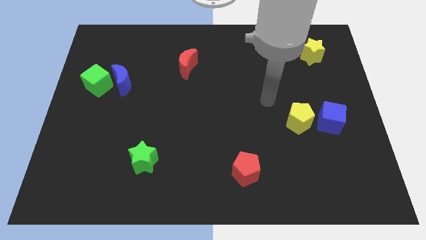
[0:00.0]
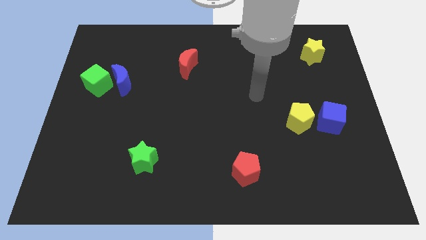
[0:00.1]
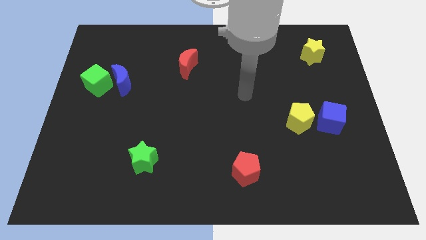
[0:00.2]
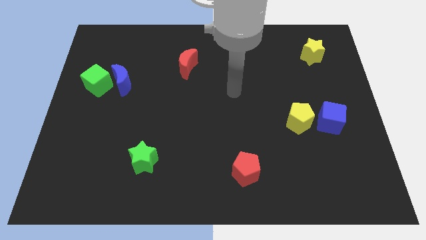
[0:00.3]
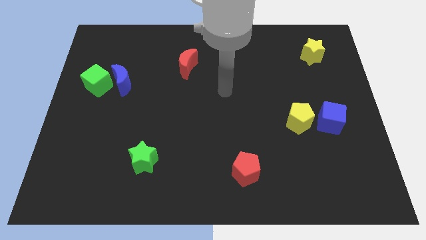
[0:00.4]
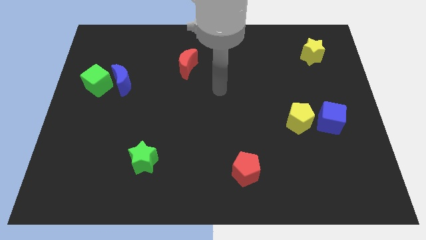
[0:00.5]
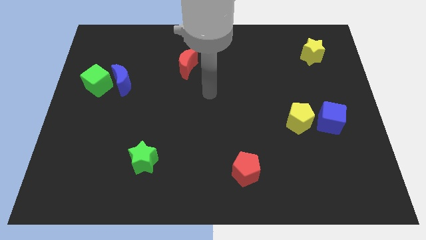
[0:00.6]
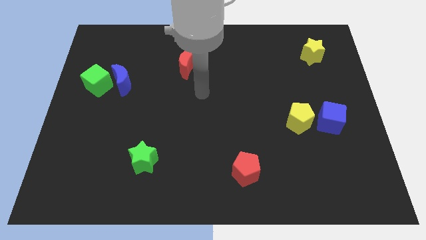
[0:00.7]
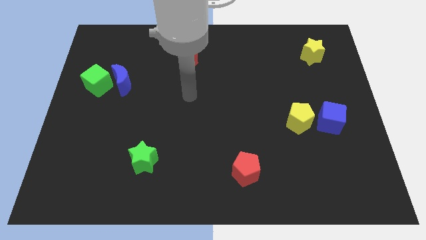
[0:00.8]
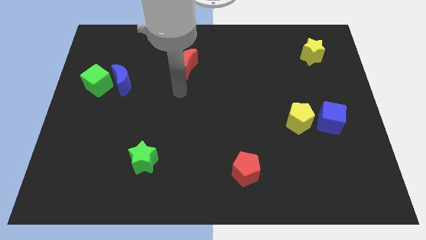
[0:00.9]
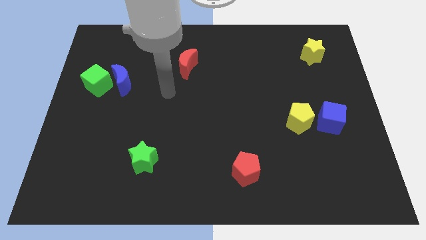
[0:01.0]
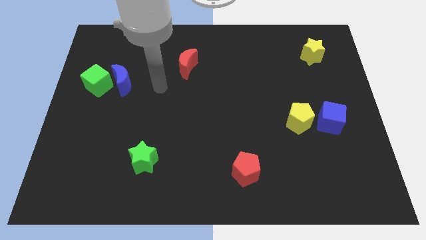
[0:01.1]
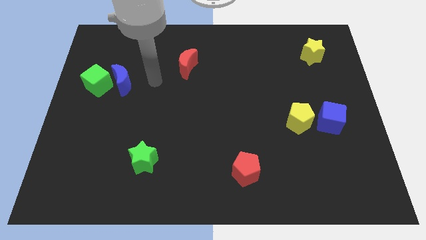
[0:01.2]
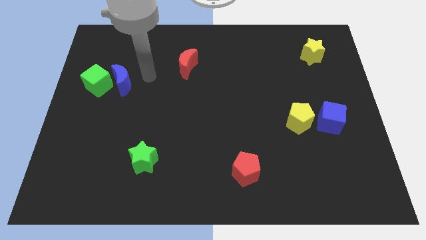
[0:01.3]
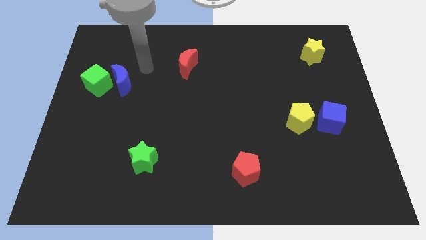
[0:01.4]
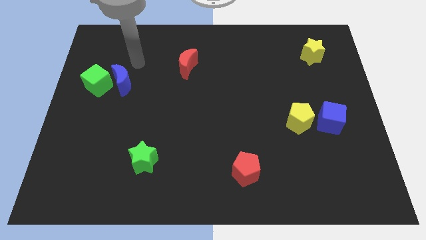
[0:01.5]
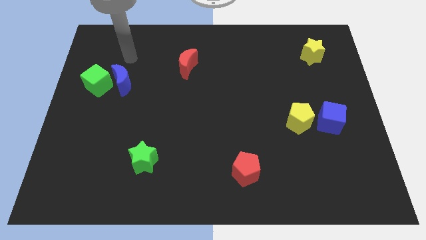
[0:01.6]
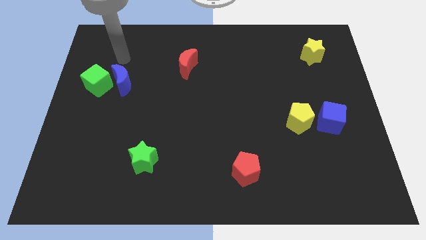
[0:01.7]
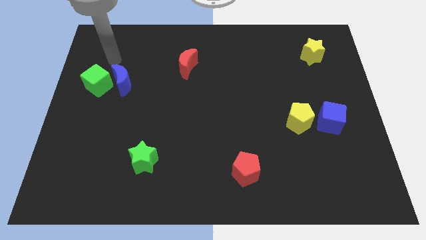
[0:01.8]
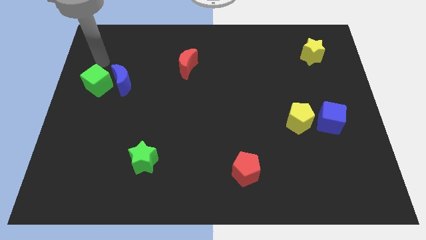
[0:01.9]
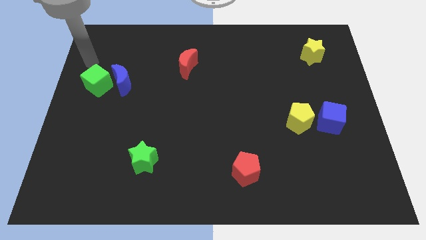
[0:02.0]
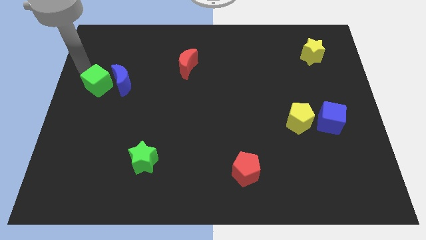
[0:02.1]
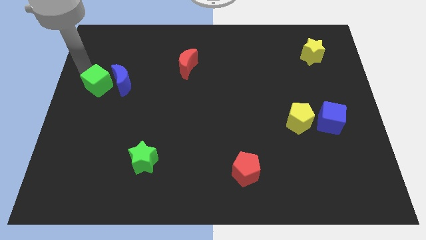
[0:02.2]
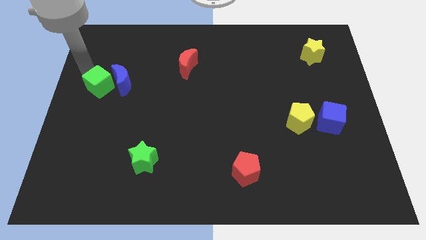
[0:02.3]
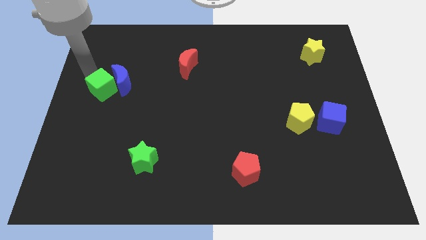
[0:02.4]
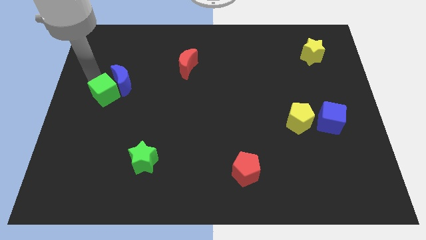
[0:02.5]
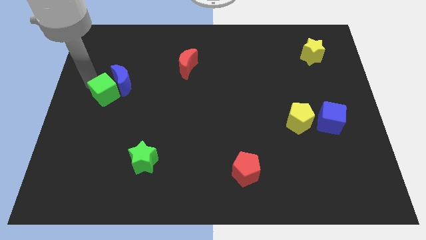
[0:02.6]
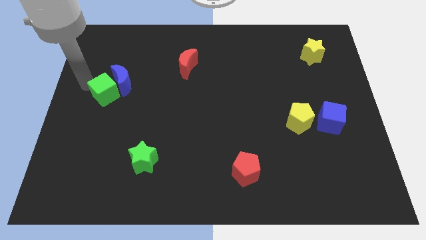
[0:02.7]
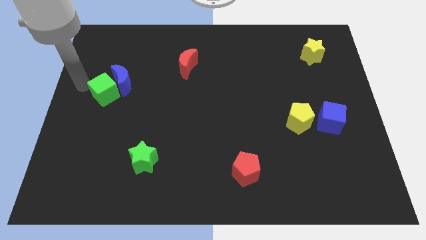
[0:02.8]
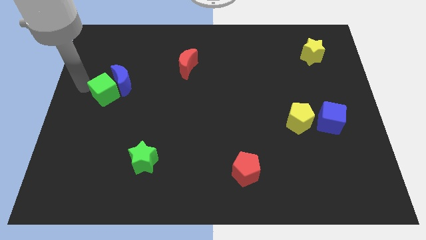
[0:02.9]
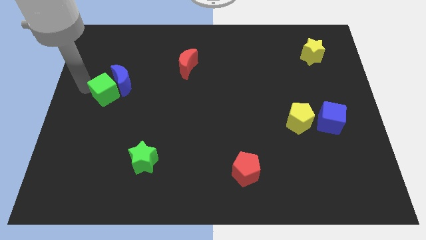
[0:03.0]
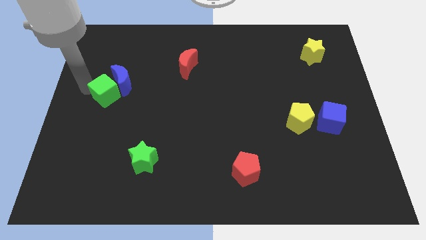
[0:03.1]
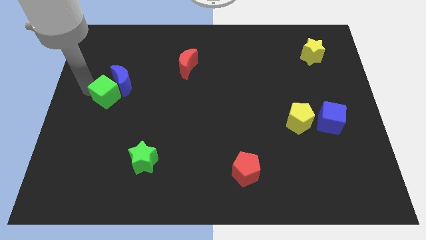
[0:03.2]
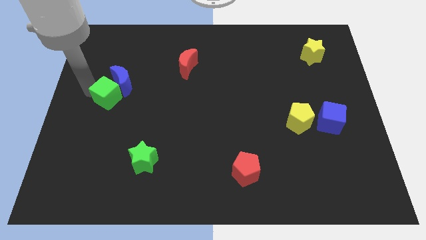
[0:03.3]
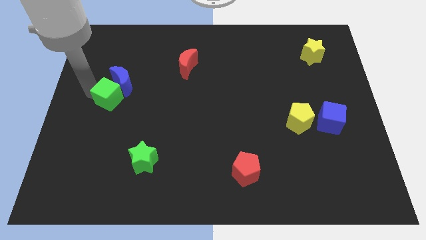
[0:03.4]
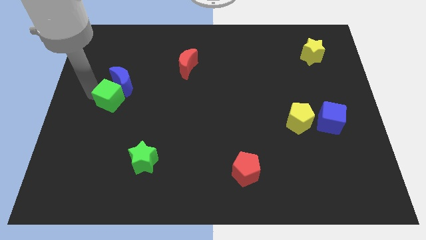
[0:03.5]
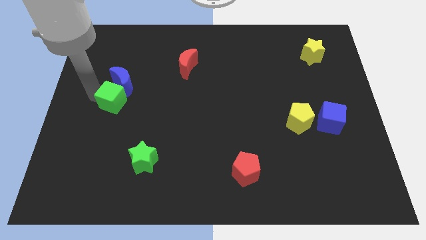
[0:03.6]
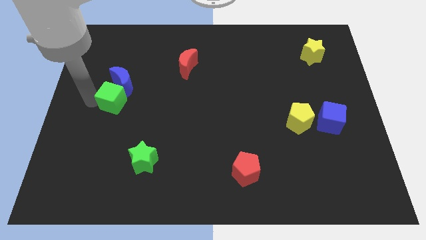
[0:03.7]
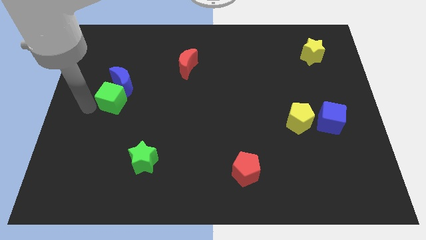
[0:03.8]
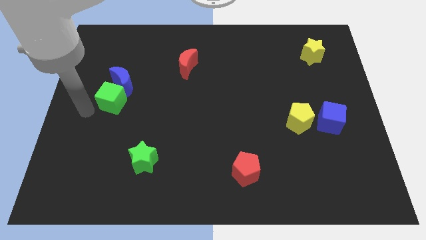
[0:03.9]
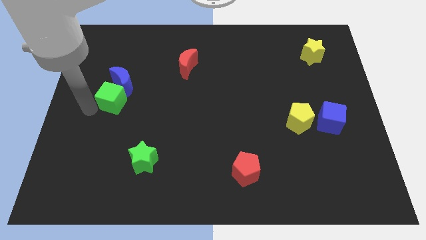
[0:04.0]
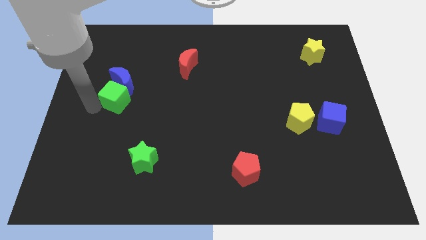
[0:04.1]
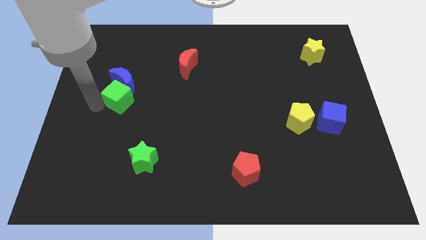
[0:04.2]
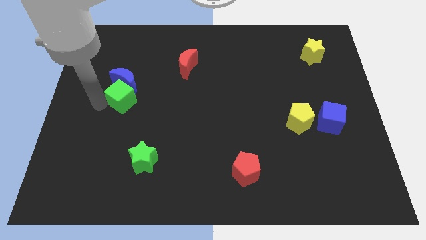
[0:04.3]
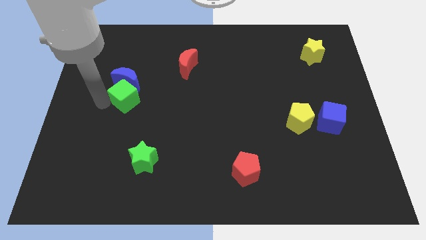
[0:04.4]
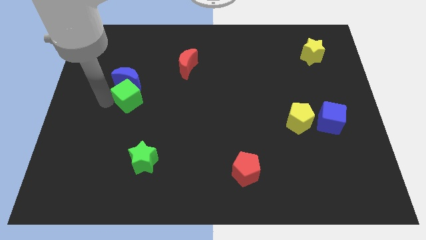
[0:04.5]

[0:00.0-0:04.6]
slide the green cube to the right somewhat

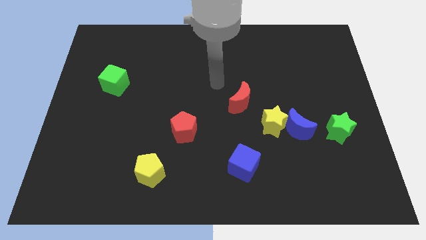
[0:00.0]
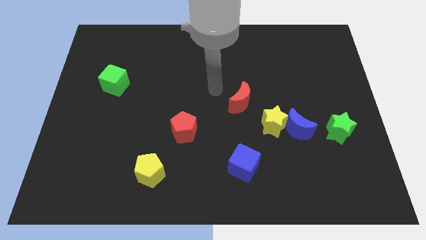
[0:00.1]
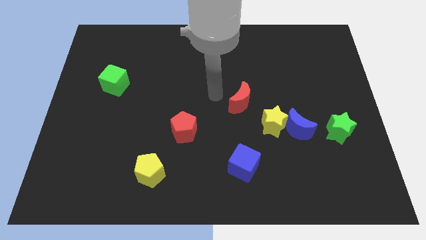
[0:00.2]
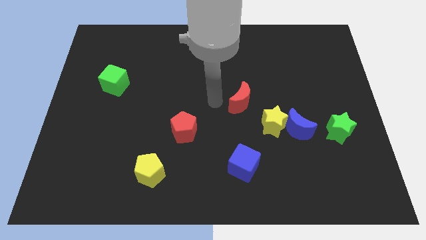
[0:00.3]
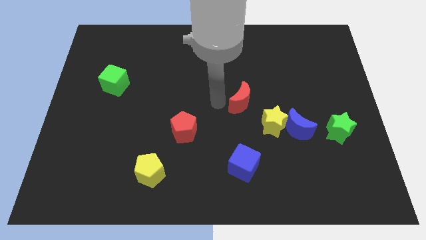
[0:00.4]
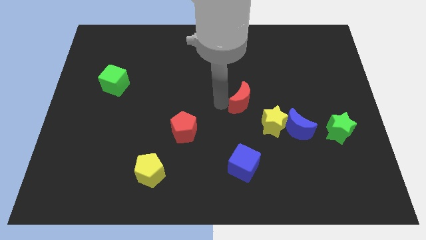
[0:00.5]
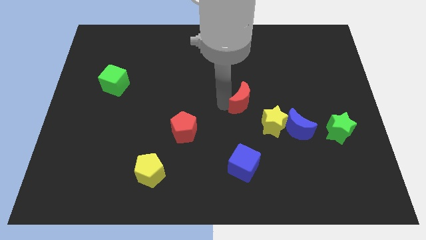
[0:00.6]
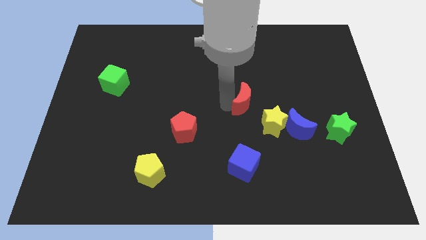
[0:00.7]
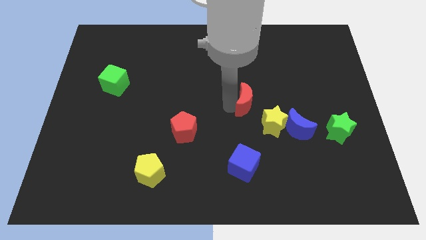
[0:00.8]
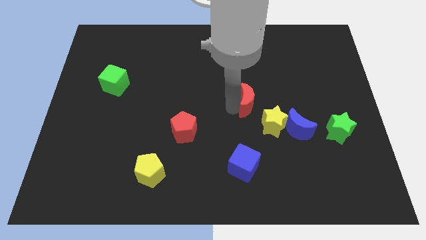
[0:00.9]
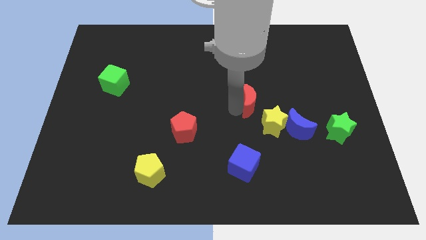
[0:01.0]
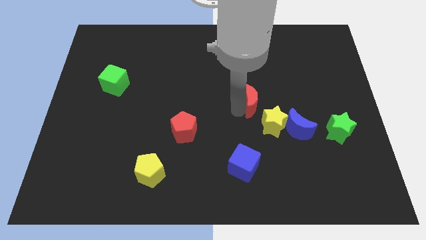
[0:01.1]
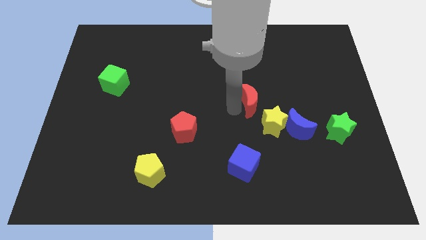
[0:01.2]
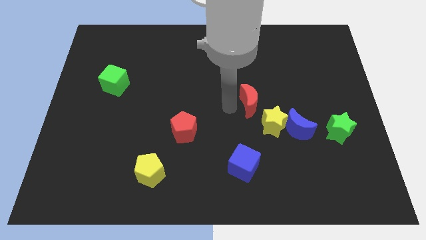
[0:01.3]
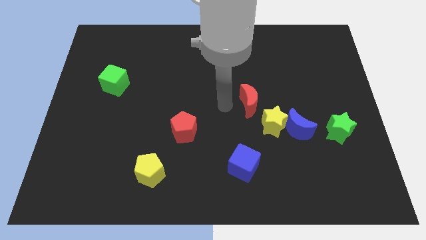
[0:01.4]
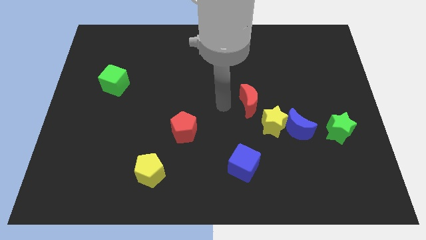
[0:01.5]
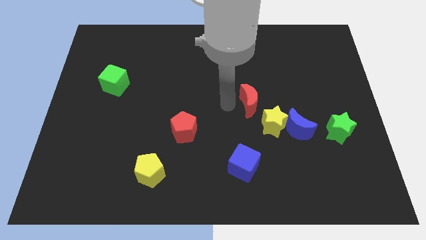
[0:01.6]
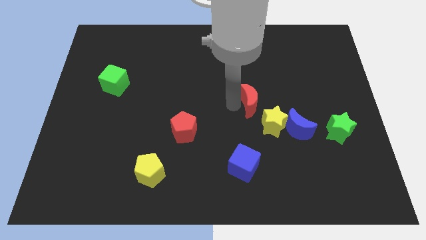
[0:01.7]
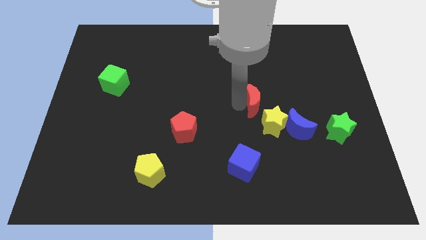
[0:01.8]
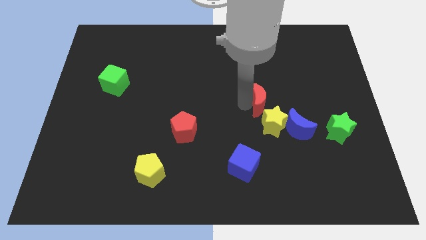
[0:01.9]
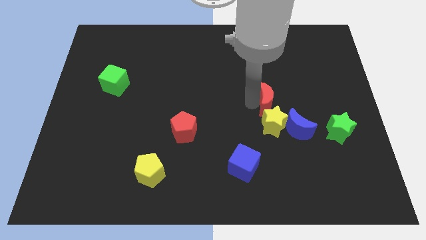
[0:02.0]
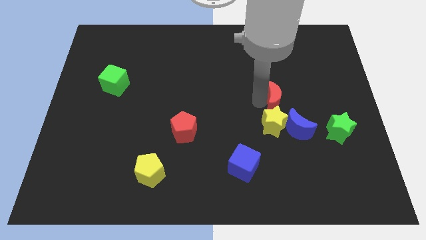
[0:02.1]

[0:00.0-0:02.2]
push the red moon a little bit to the right

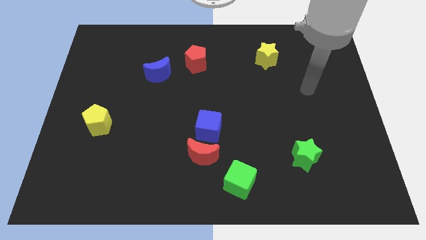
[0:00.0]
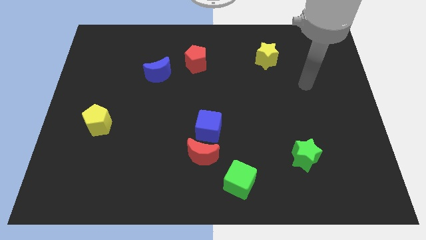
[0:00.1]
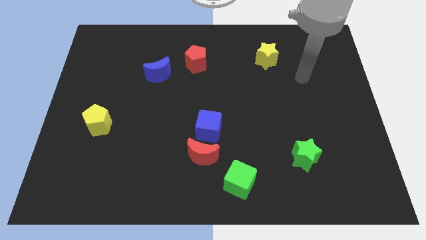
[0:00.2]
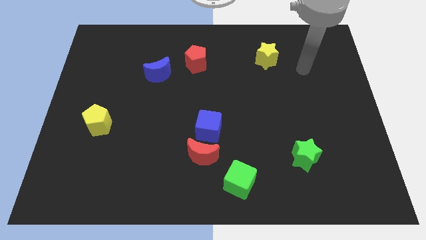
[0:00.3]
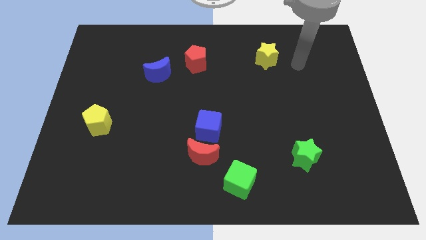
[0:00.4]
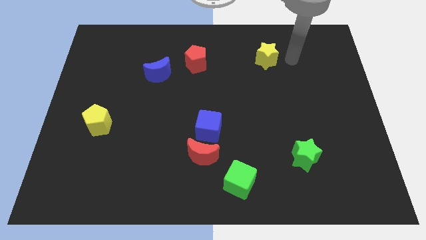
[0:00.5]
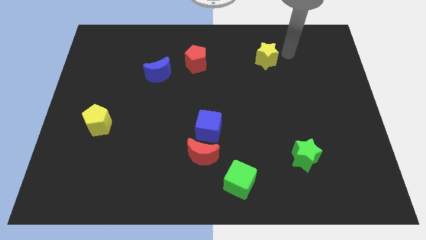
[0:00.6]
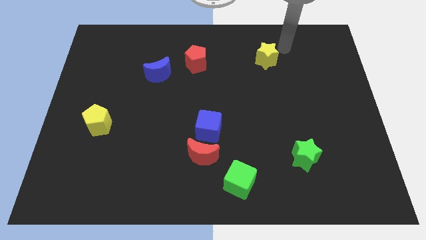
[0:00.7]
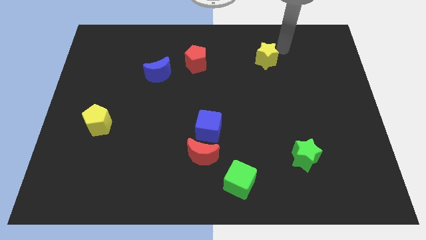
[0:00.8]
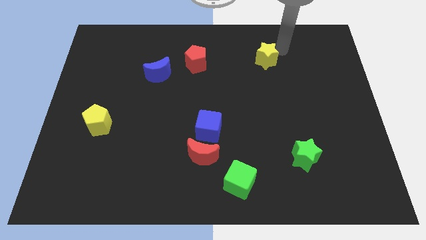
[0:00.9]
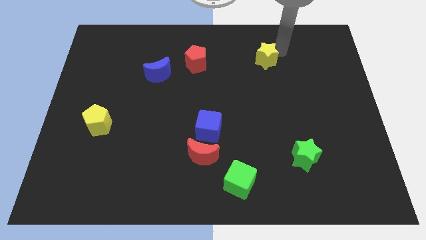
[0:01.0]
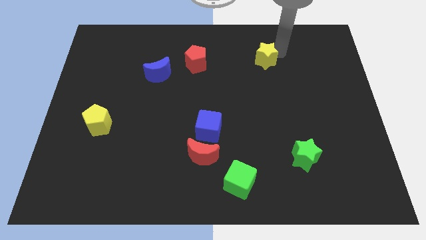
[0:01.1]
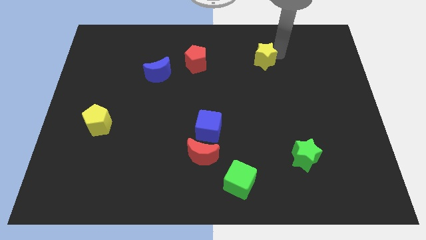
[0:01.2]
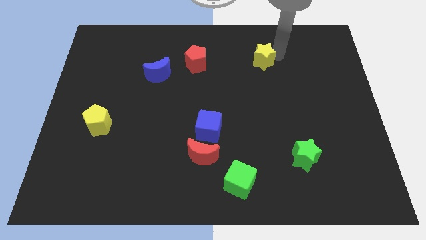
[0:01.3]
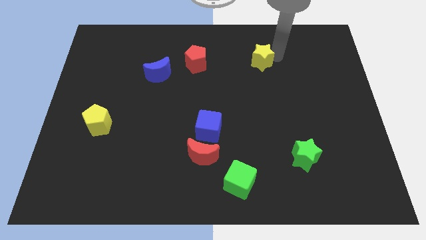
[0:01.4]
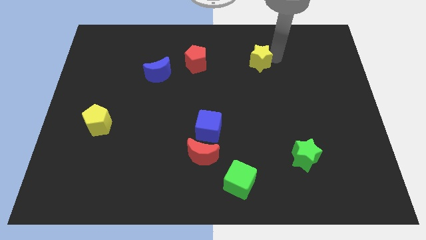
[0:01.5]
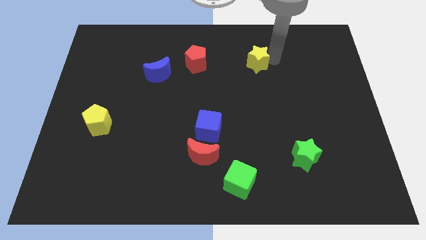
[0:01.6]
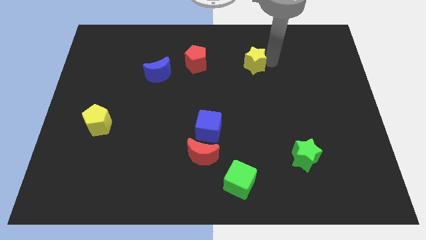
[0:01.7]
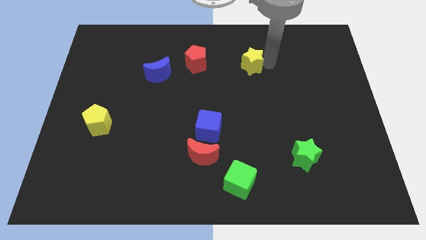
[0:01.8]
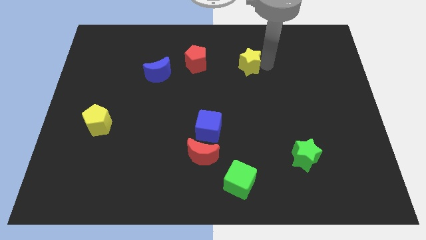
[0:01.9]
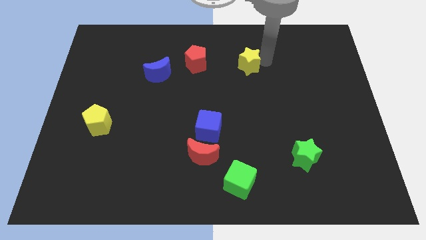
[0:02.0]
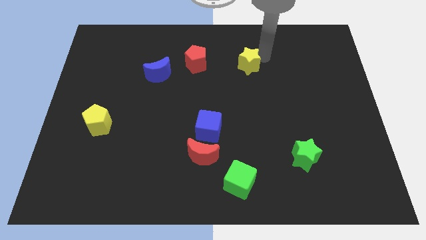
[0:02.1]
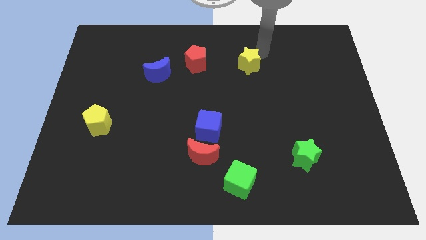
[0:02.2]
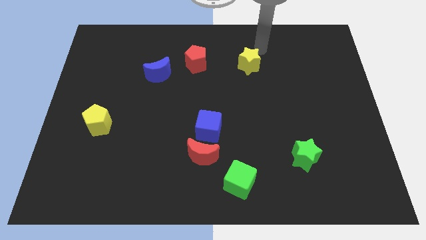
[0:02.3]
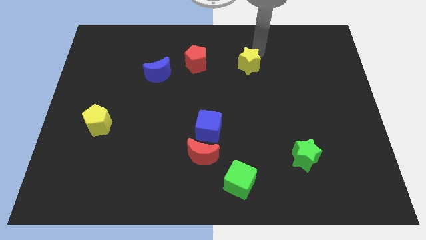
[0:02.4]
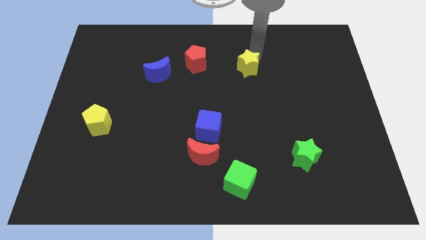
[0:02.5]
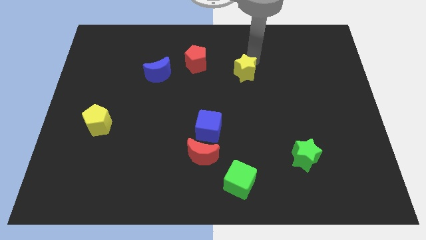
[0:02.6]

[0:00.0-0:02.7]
slightly push the yellow star down and left
